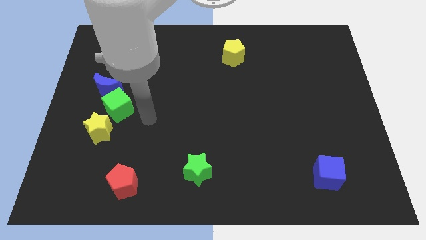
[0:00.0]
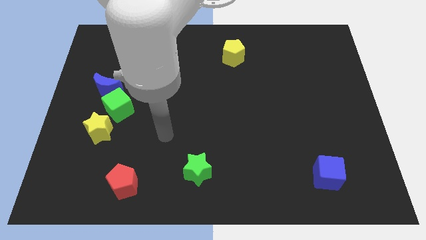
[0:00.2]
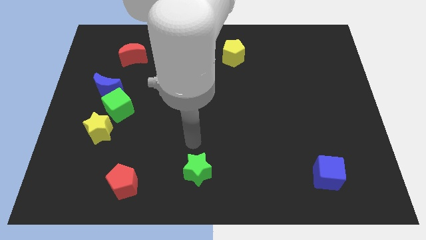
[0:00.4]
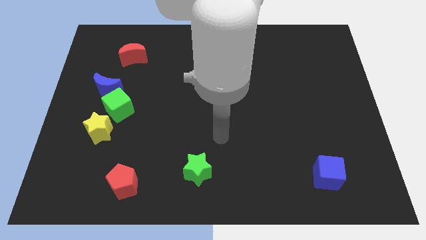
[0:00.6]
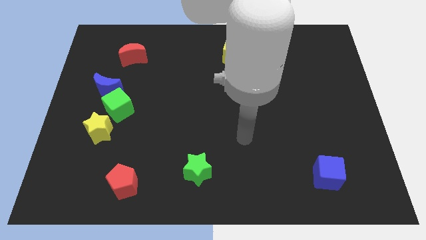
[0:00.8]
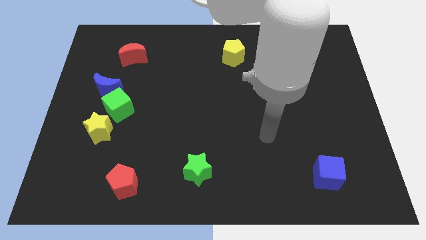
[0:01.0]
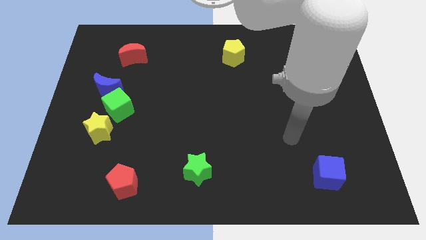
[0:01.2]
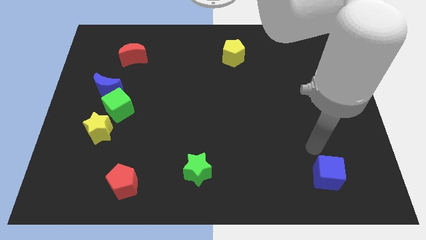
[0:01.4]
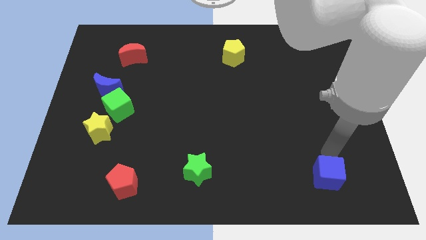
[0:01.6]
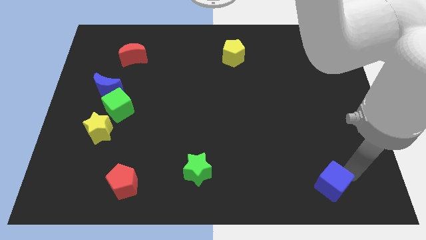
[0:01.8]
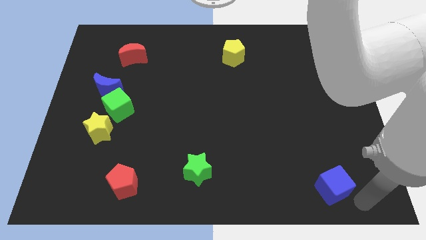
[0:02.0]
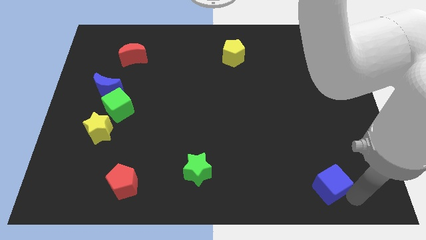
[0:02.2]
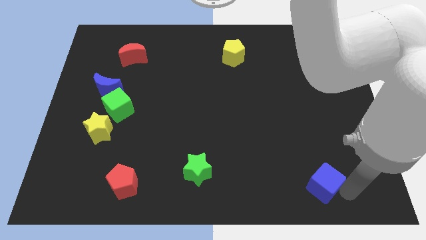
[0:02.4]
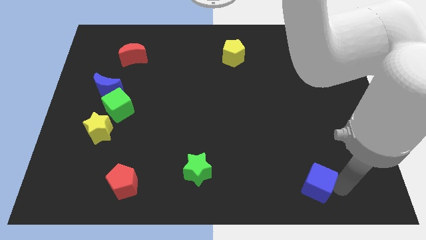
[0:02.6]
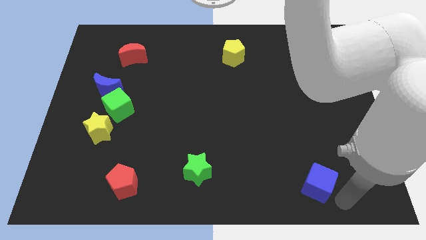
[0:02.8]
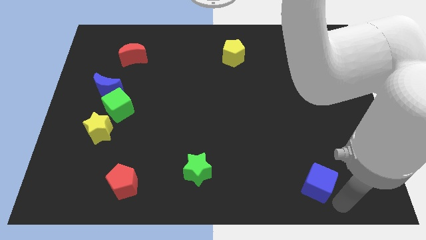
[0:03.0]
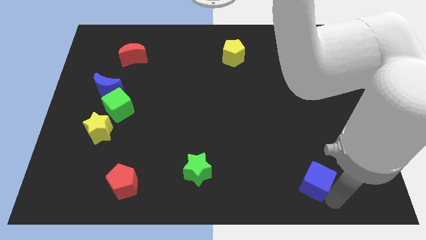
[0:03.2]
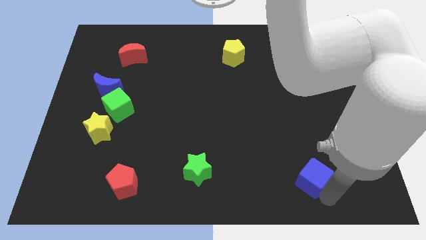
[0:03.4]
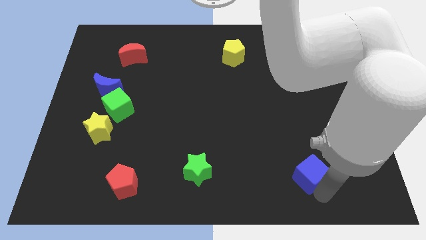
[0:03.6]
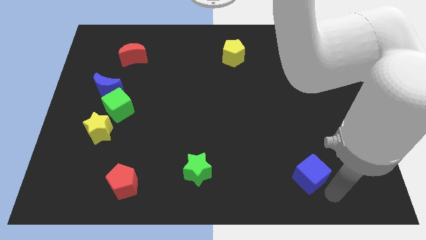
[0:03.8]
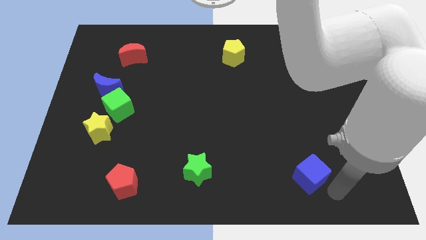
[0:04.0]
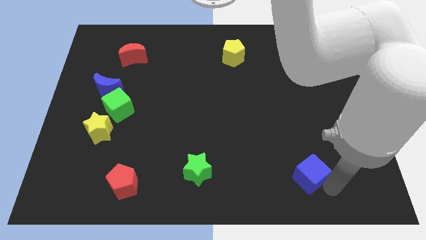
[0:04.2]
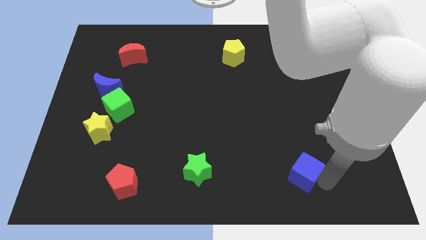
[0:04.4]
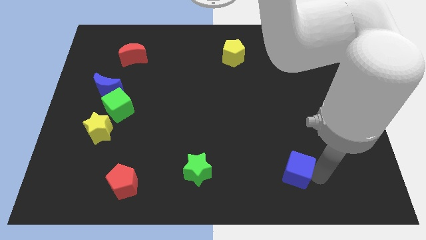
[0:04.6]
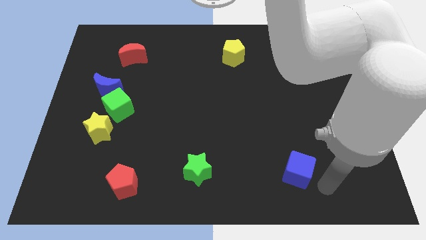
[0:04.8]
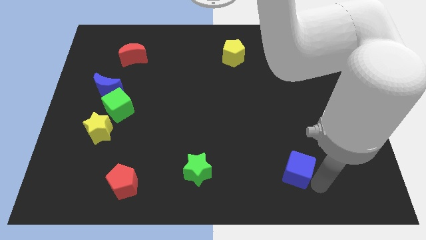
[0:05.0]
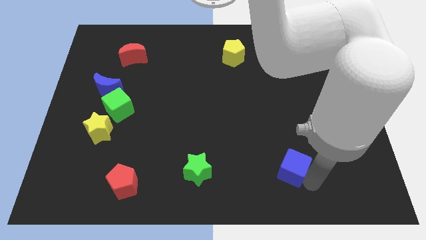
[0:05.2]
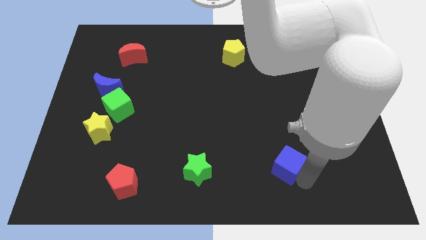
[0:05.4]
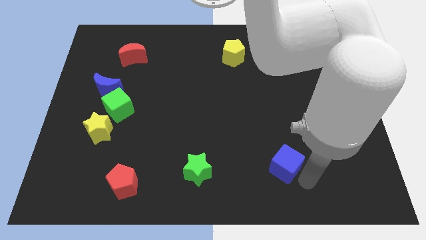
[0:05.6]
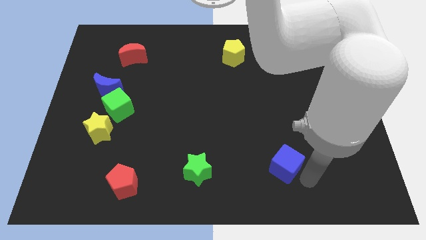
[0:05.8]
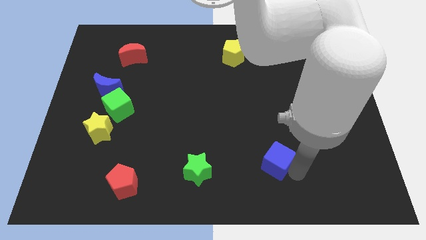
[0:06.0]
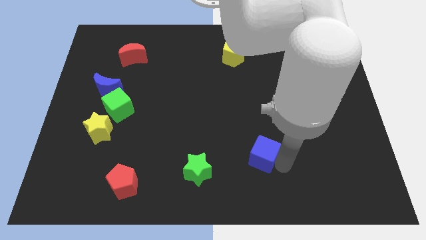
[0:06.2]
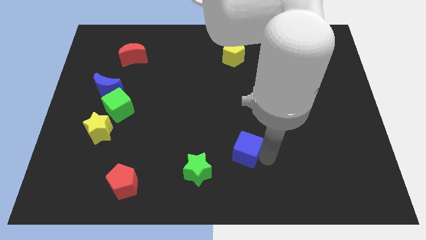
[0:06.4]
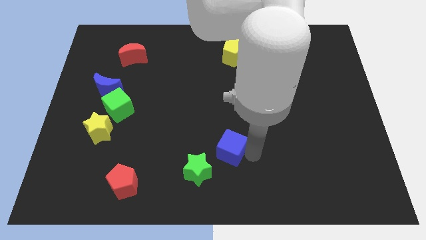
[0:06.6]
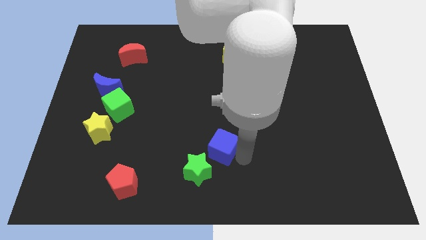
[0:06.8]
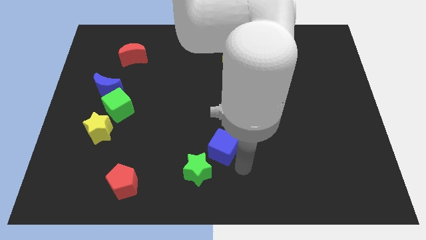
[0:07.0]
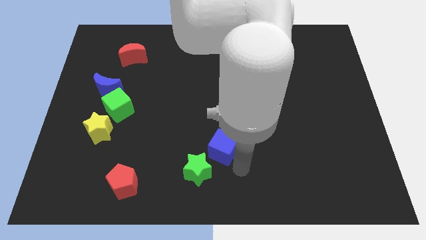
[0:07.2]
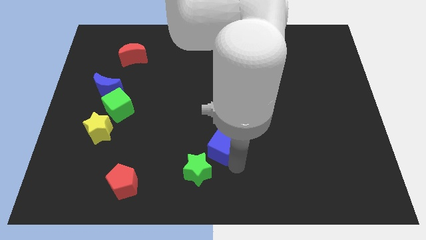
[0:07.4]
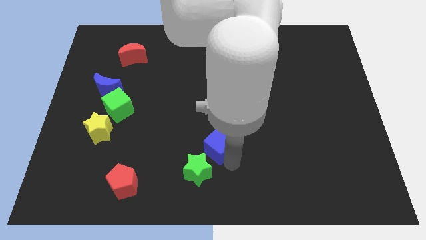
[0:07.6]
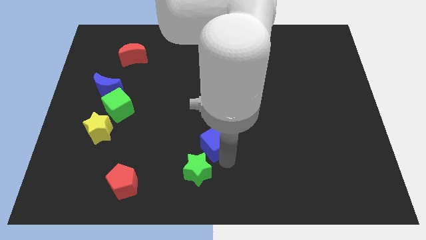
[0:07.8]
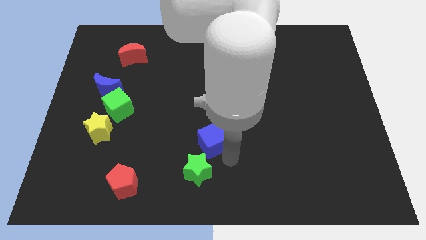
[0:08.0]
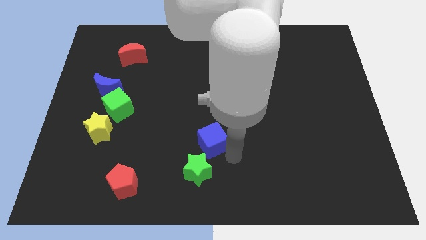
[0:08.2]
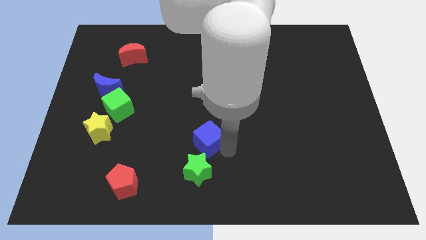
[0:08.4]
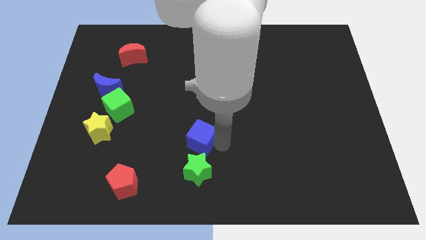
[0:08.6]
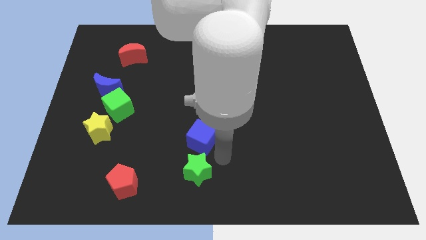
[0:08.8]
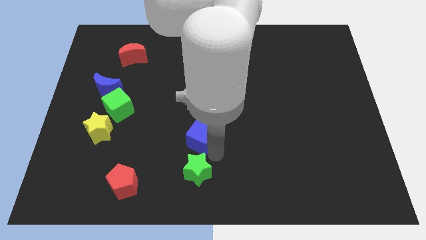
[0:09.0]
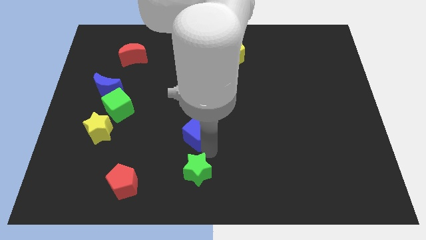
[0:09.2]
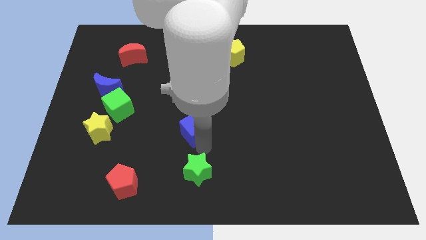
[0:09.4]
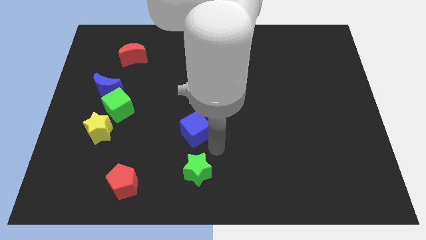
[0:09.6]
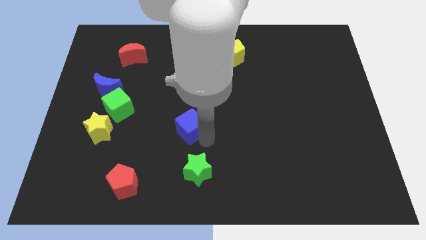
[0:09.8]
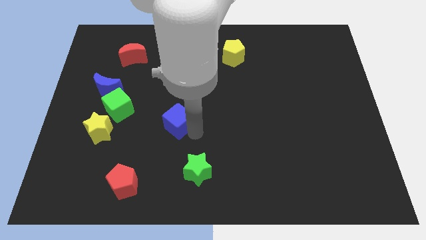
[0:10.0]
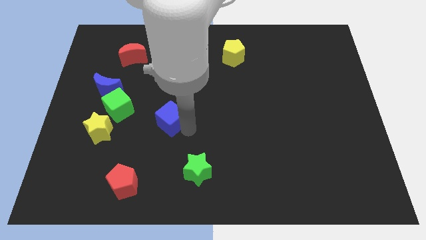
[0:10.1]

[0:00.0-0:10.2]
put the blue cube to the right of the green cube

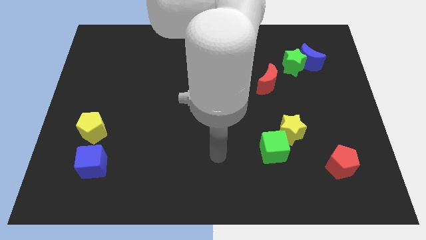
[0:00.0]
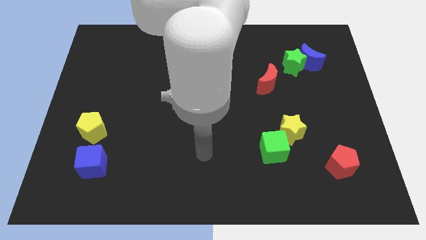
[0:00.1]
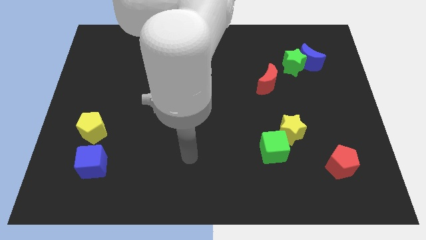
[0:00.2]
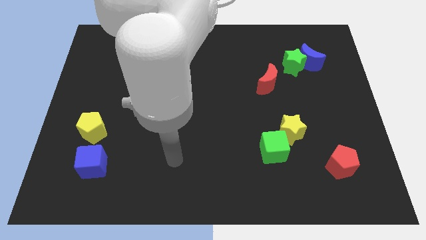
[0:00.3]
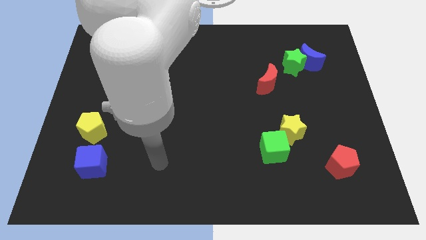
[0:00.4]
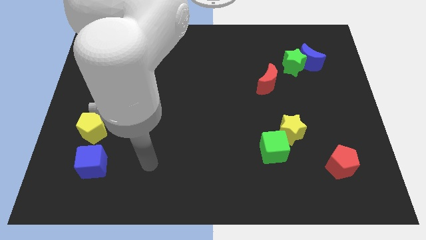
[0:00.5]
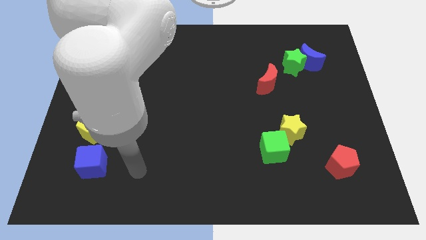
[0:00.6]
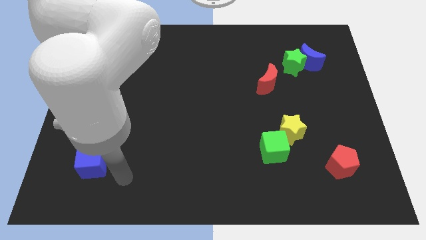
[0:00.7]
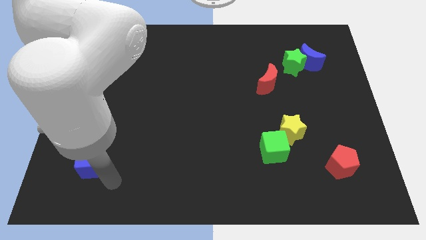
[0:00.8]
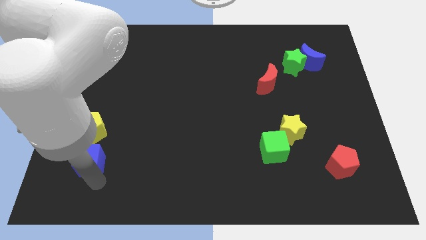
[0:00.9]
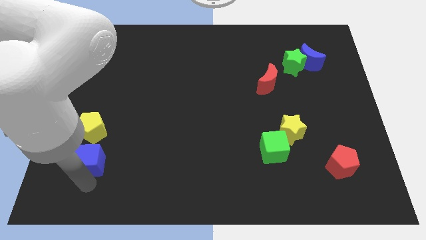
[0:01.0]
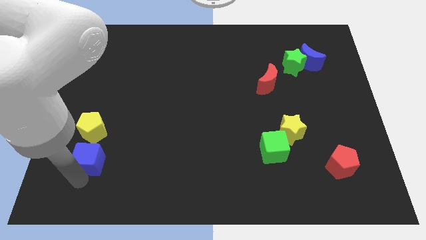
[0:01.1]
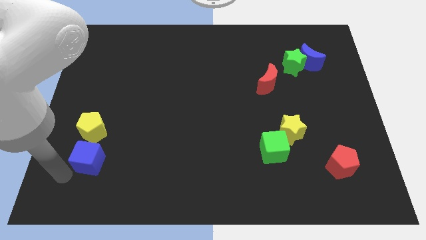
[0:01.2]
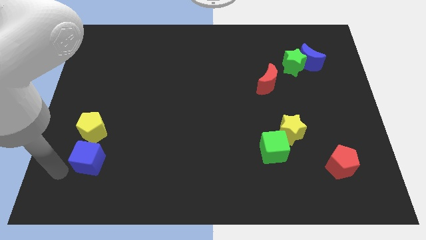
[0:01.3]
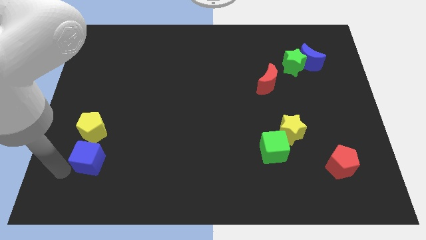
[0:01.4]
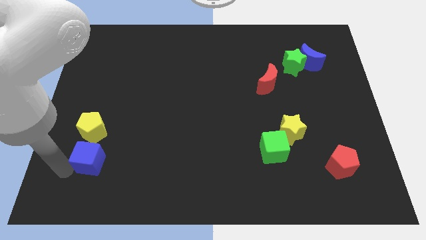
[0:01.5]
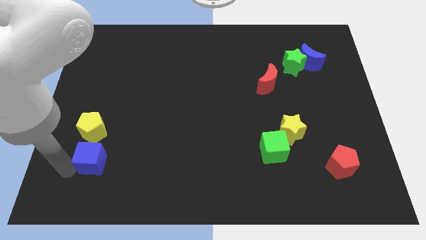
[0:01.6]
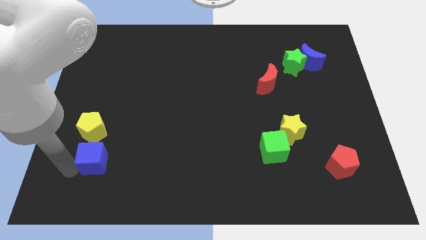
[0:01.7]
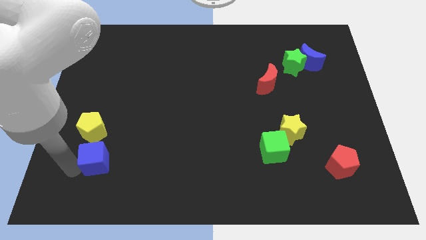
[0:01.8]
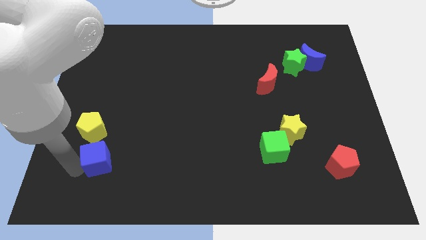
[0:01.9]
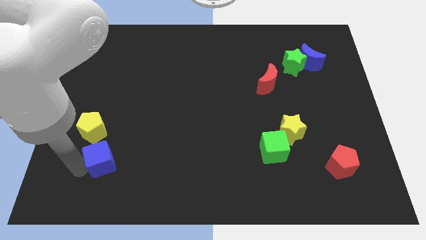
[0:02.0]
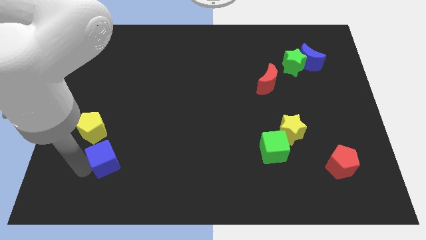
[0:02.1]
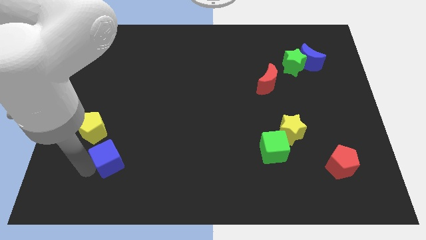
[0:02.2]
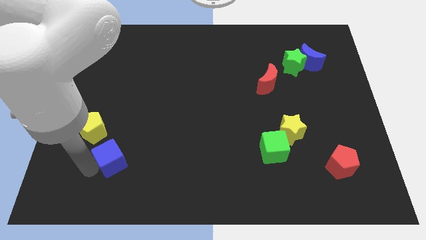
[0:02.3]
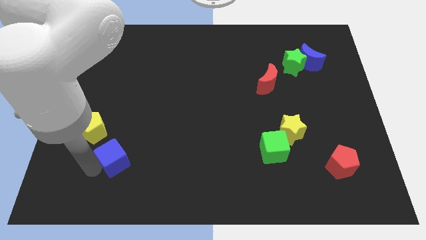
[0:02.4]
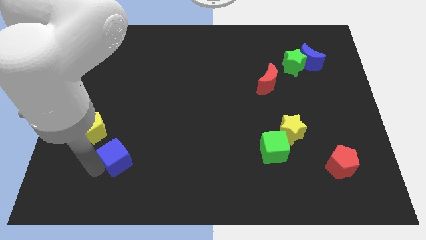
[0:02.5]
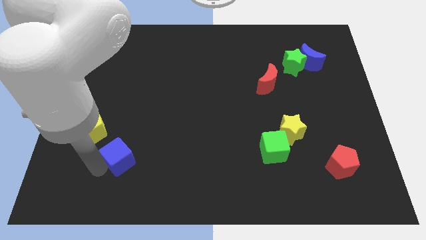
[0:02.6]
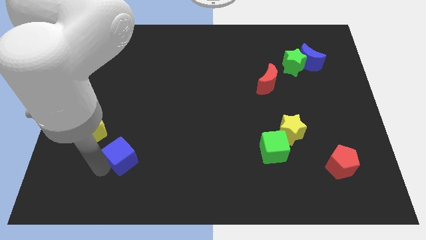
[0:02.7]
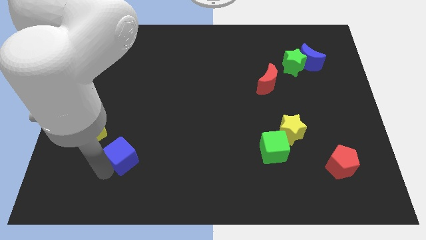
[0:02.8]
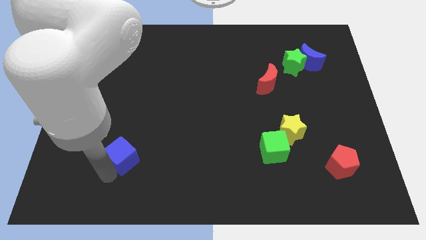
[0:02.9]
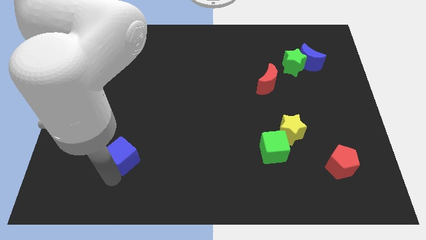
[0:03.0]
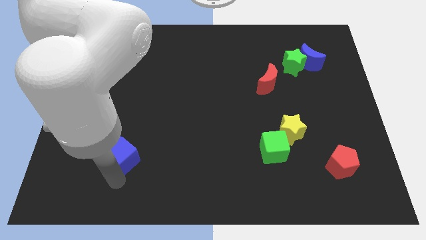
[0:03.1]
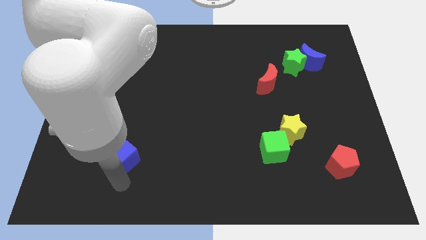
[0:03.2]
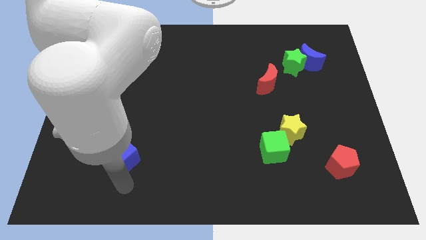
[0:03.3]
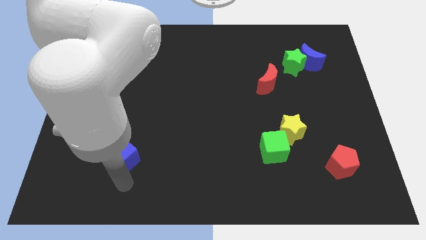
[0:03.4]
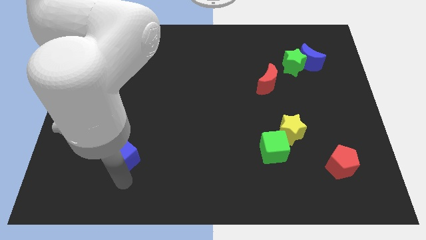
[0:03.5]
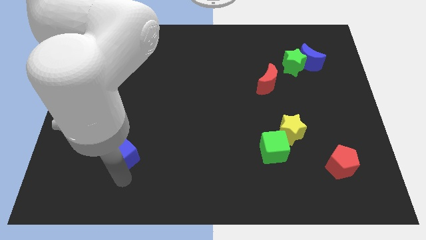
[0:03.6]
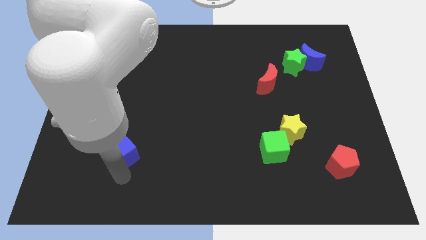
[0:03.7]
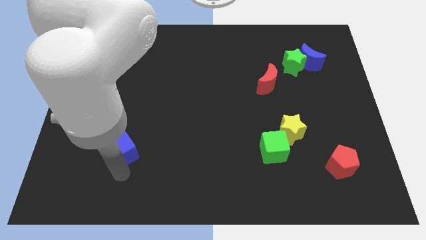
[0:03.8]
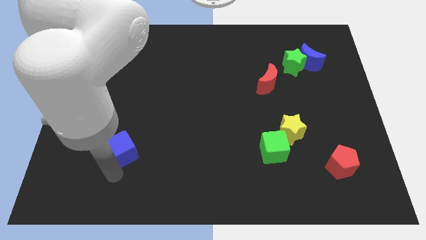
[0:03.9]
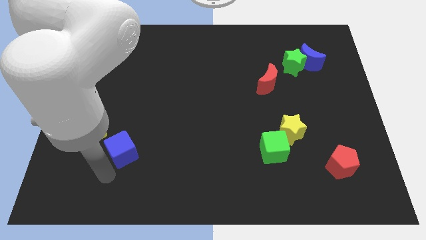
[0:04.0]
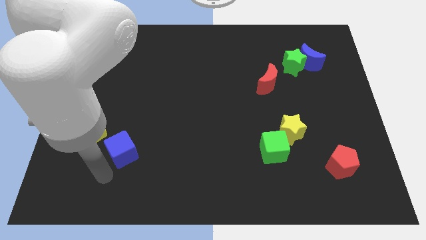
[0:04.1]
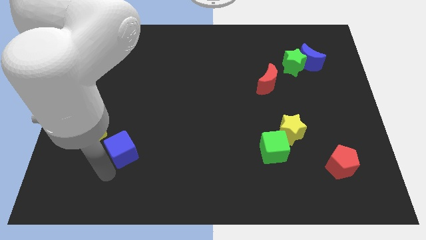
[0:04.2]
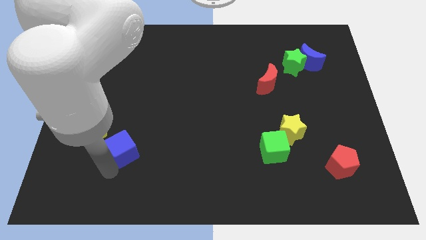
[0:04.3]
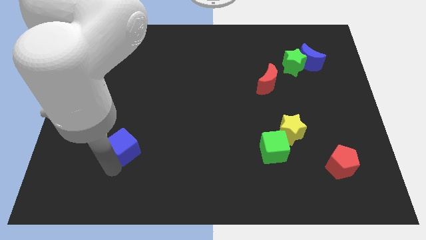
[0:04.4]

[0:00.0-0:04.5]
move the blue cube right of the yellow pentagon
